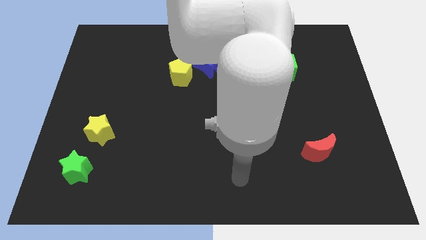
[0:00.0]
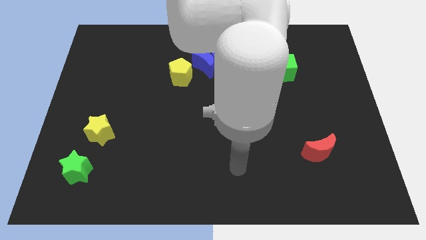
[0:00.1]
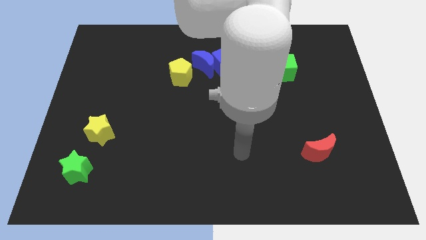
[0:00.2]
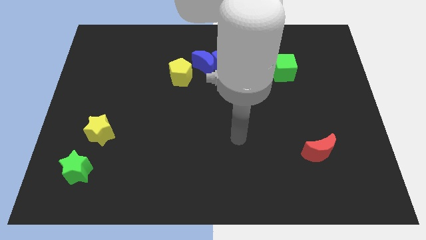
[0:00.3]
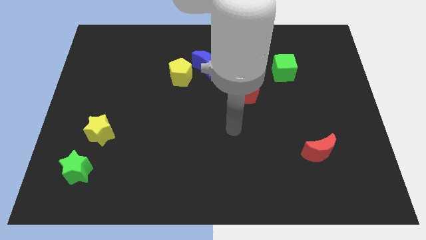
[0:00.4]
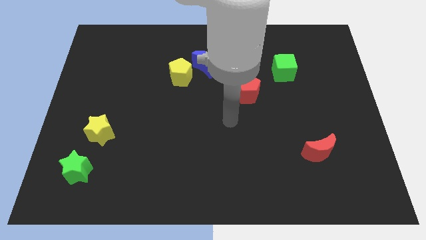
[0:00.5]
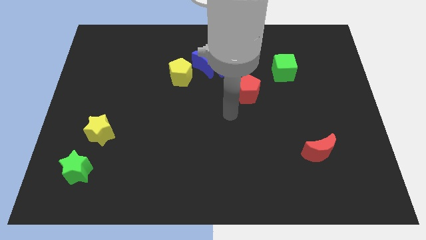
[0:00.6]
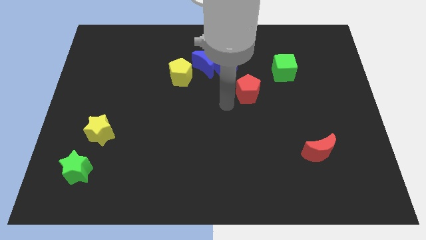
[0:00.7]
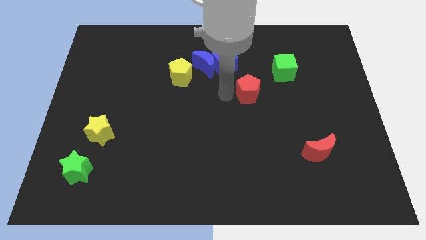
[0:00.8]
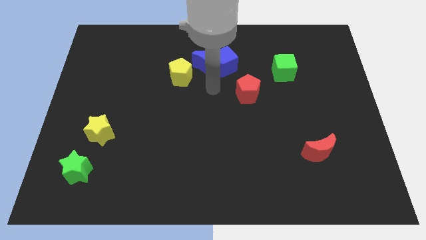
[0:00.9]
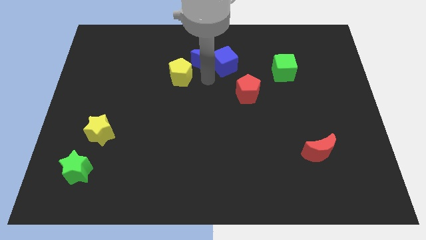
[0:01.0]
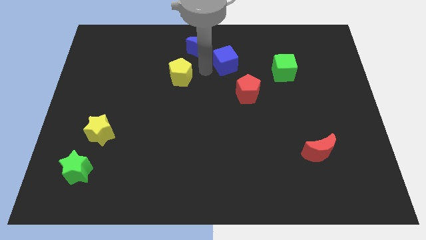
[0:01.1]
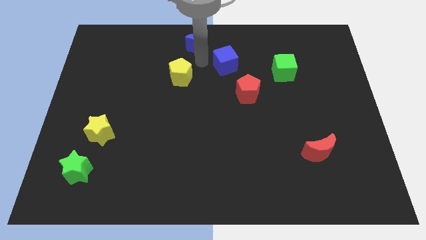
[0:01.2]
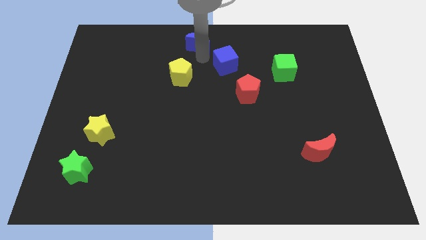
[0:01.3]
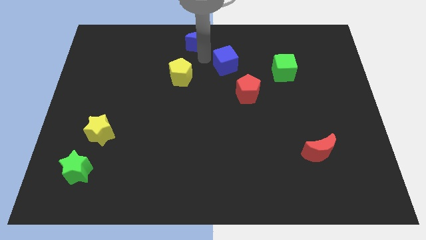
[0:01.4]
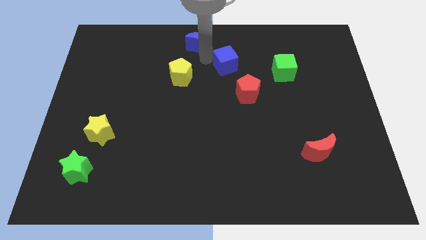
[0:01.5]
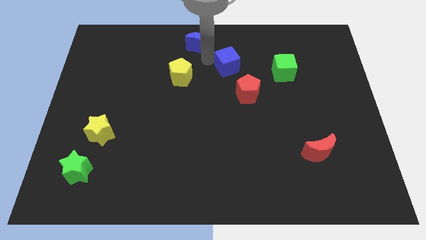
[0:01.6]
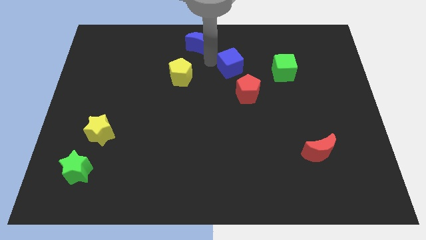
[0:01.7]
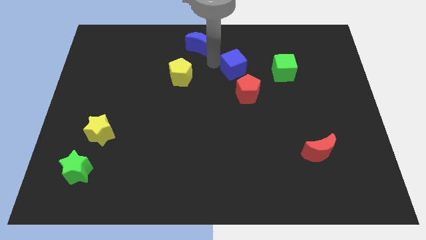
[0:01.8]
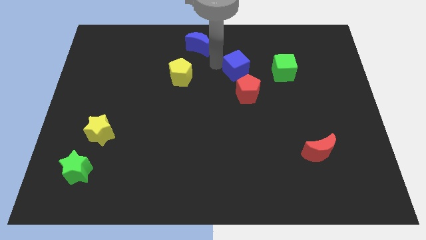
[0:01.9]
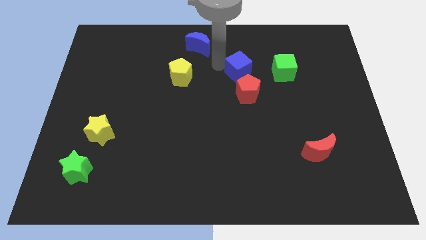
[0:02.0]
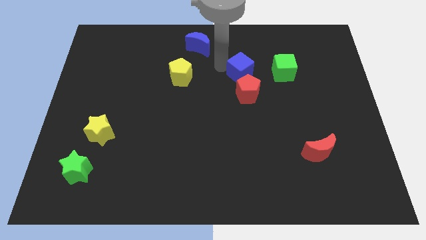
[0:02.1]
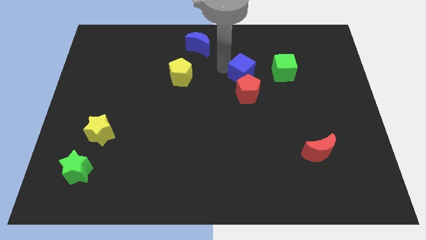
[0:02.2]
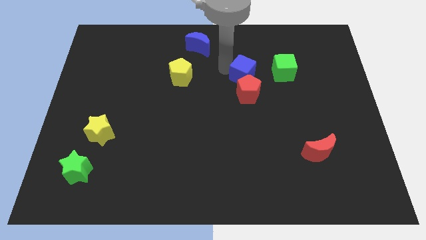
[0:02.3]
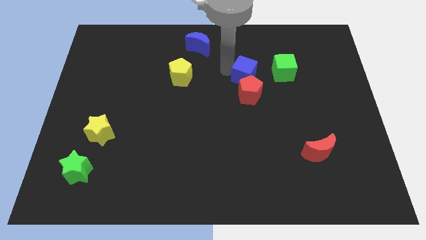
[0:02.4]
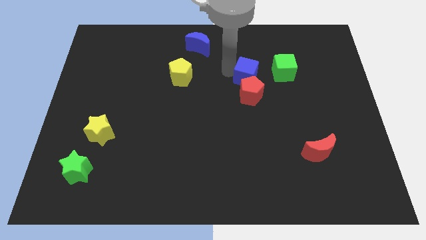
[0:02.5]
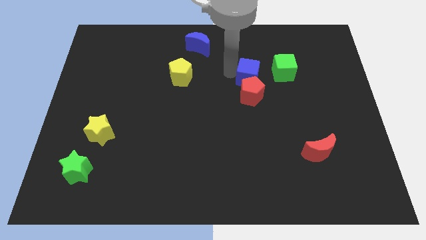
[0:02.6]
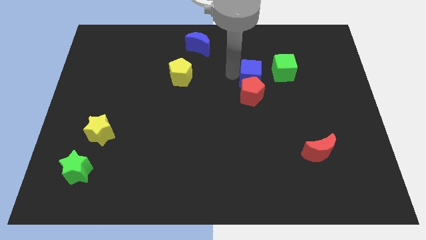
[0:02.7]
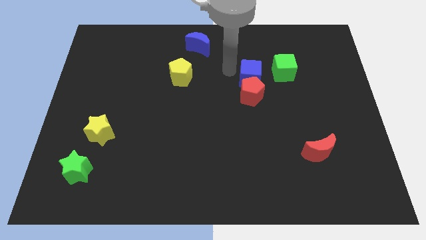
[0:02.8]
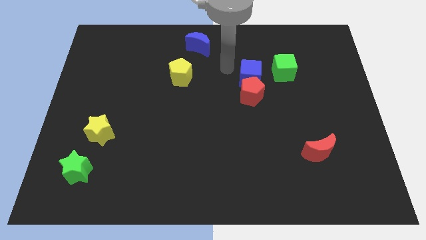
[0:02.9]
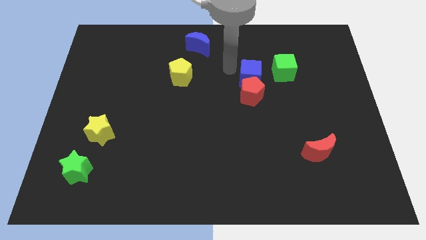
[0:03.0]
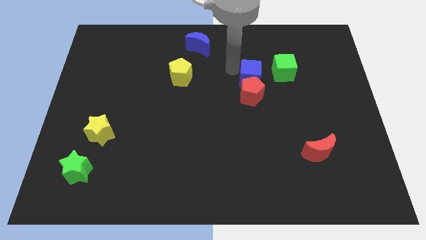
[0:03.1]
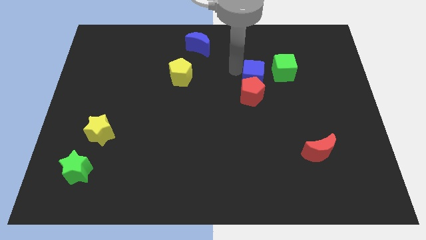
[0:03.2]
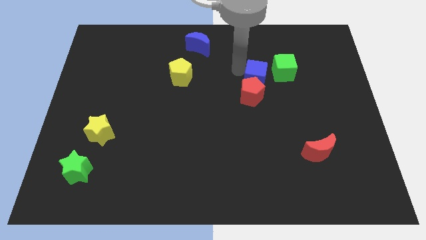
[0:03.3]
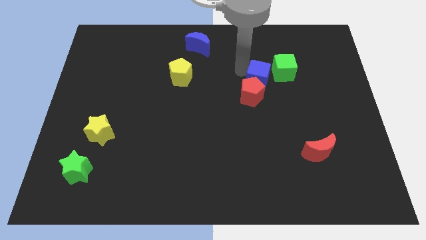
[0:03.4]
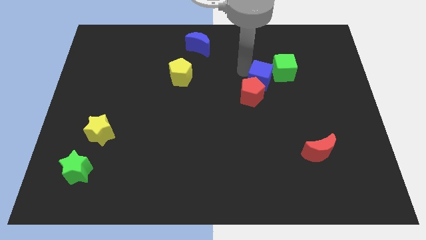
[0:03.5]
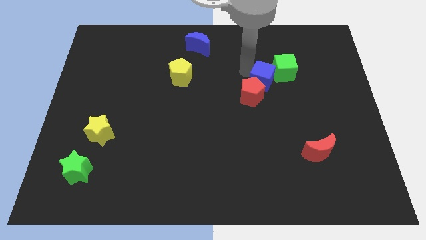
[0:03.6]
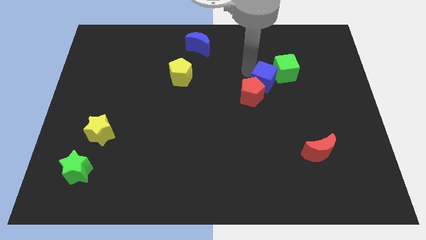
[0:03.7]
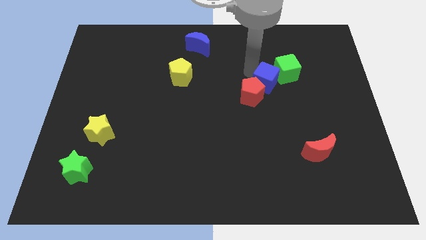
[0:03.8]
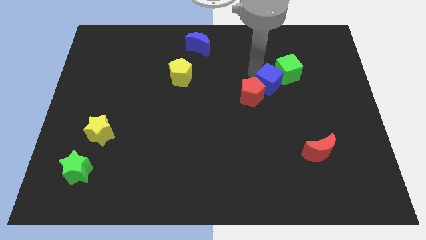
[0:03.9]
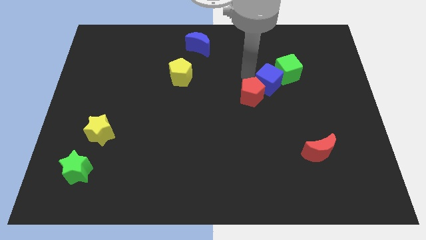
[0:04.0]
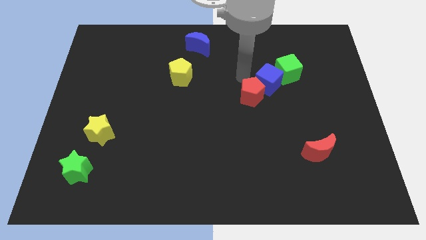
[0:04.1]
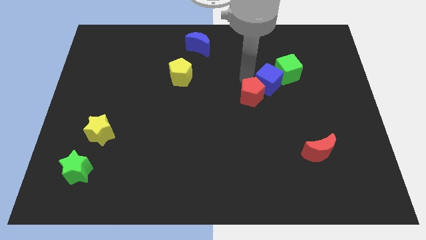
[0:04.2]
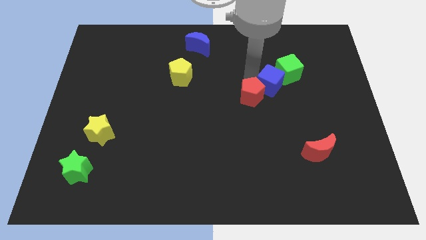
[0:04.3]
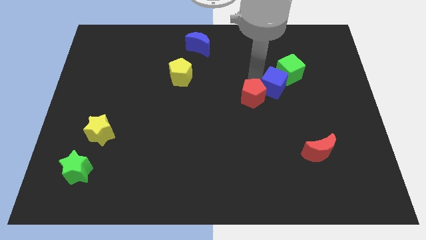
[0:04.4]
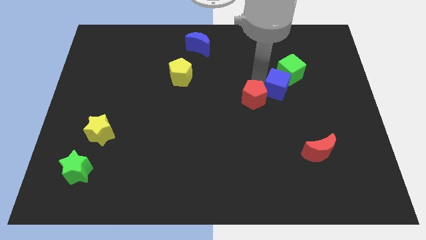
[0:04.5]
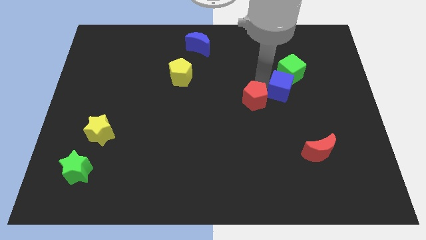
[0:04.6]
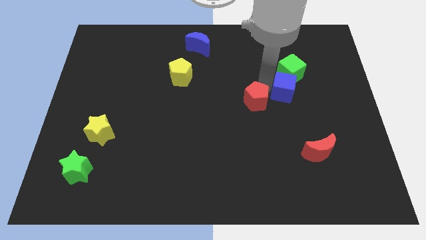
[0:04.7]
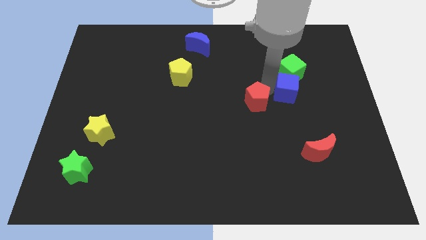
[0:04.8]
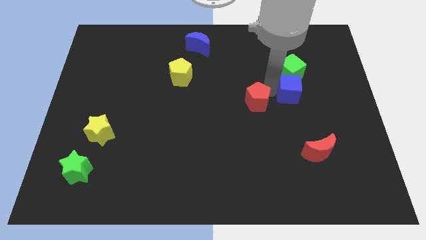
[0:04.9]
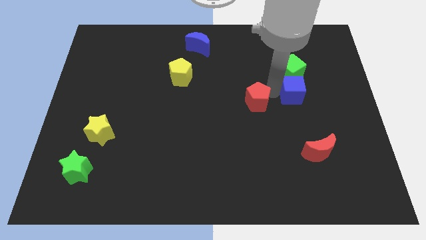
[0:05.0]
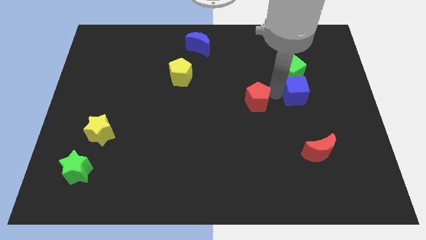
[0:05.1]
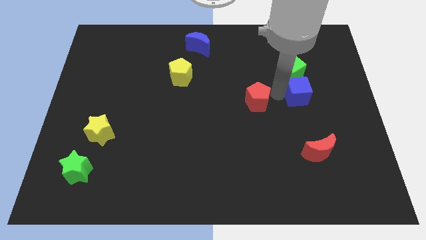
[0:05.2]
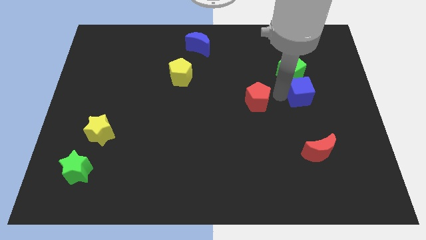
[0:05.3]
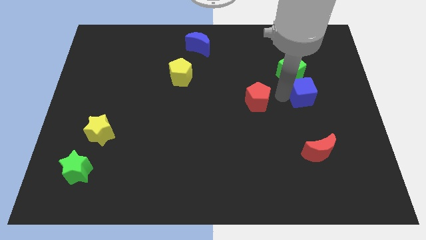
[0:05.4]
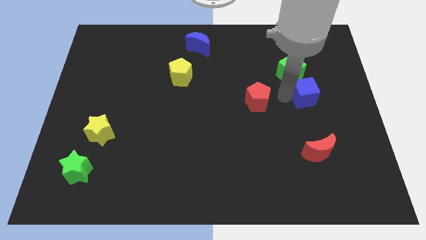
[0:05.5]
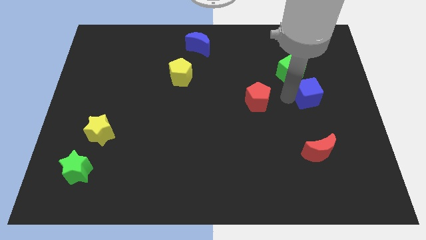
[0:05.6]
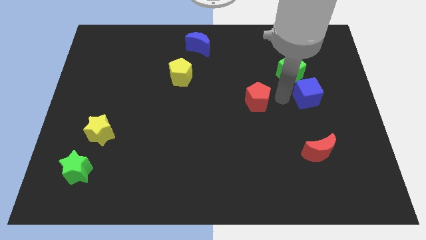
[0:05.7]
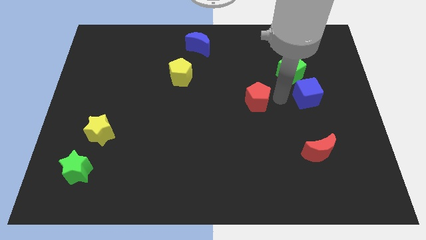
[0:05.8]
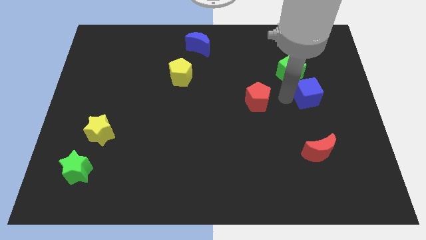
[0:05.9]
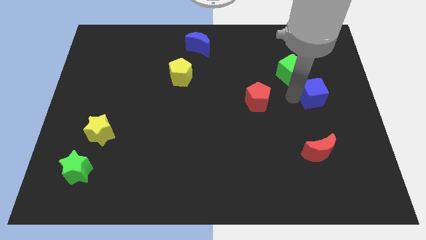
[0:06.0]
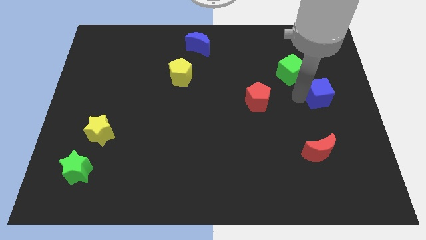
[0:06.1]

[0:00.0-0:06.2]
push the blue cube to the right side of the board

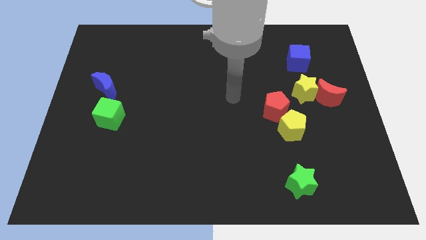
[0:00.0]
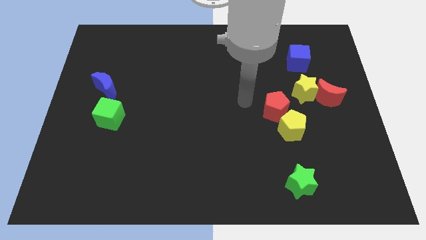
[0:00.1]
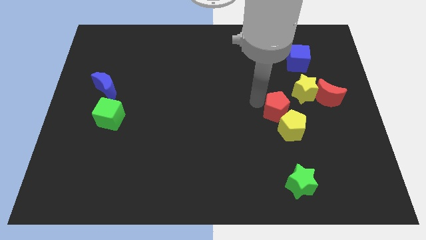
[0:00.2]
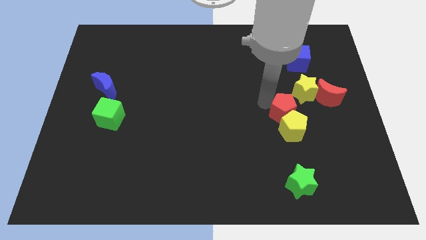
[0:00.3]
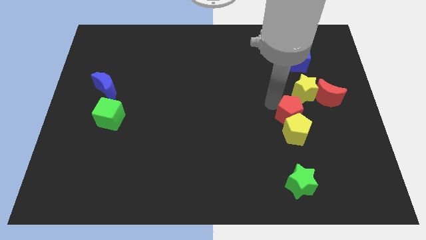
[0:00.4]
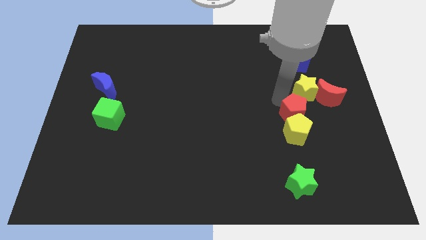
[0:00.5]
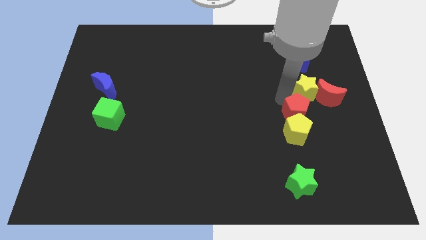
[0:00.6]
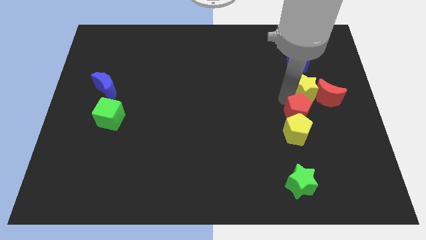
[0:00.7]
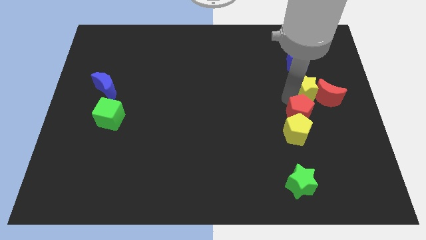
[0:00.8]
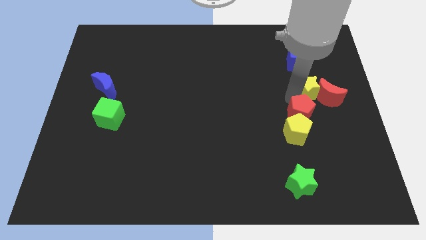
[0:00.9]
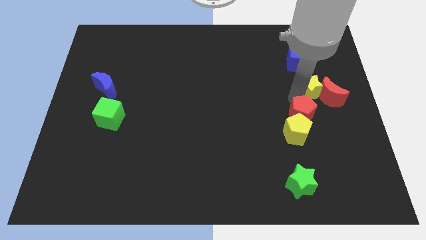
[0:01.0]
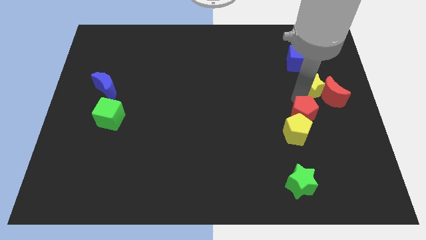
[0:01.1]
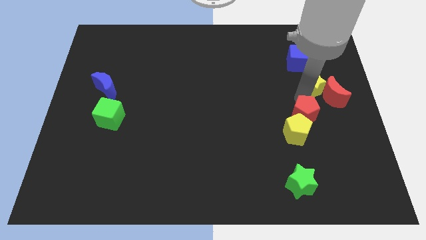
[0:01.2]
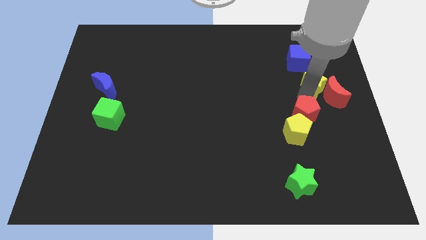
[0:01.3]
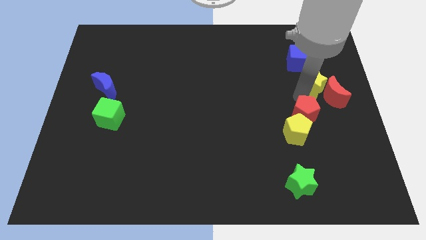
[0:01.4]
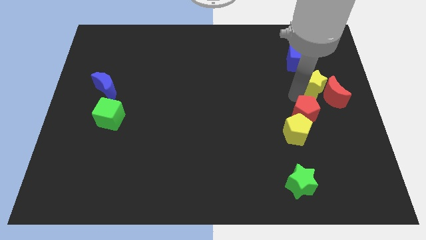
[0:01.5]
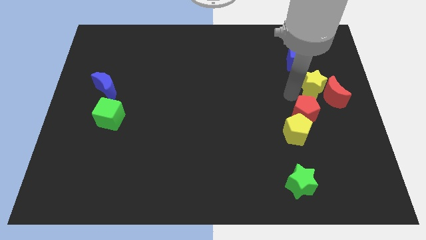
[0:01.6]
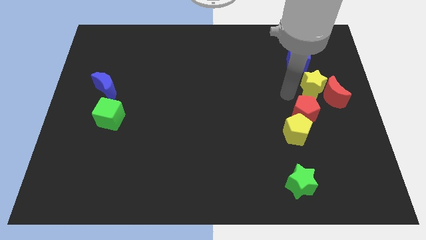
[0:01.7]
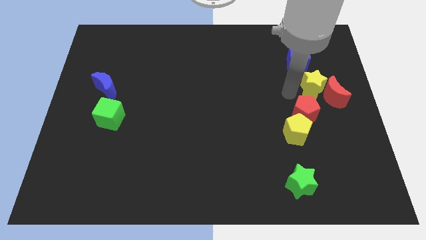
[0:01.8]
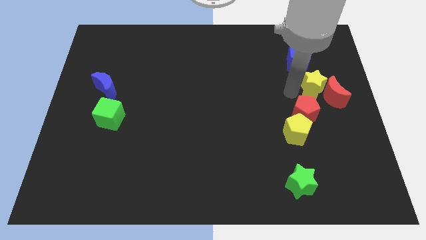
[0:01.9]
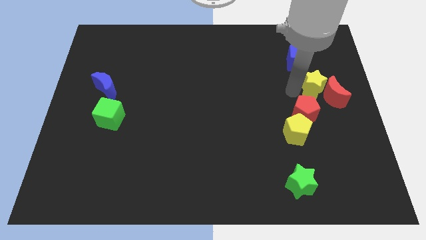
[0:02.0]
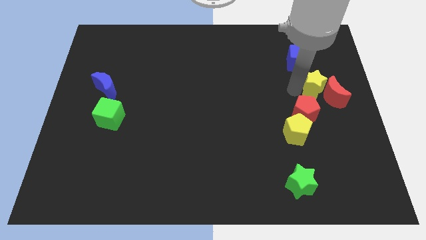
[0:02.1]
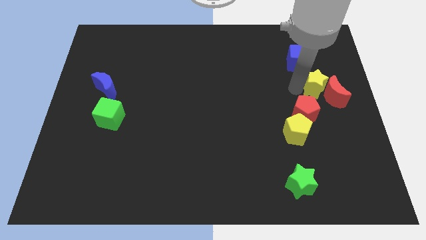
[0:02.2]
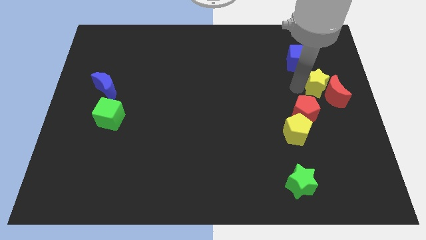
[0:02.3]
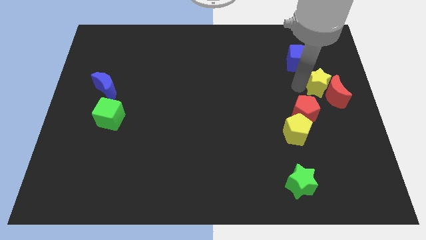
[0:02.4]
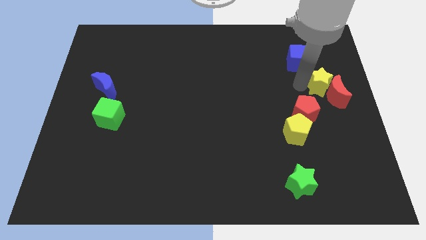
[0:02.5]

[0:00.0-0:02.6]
move the yellow star to the right side of the board
